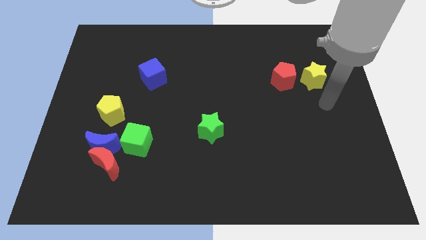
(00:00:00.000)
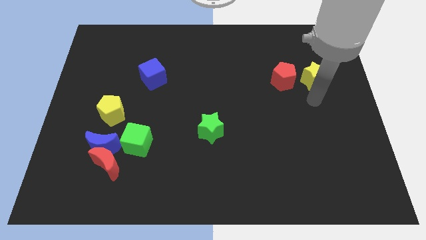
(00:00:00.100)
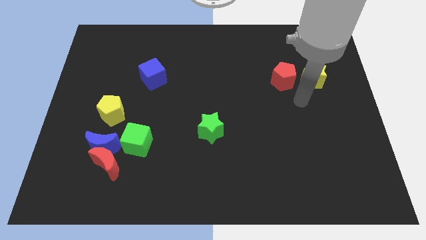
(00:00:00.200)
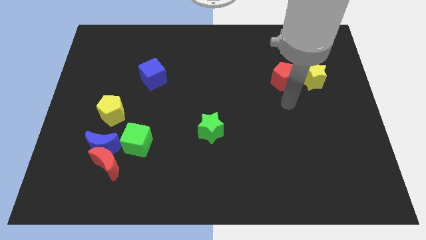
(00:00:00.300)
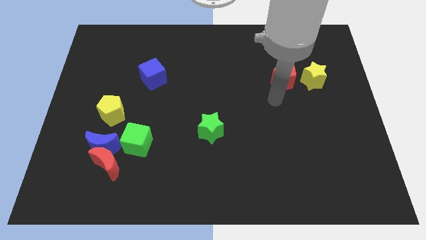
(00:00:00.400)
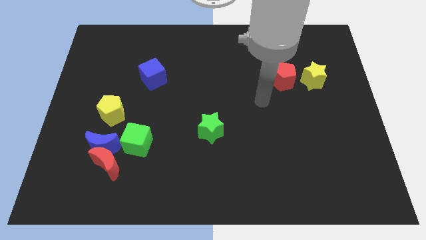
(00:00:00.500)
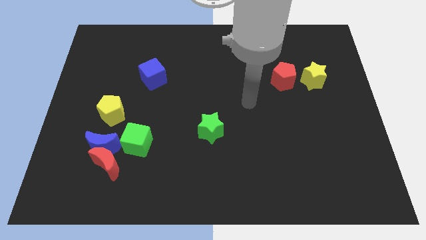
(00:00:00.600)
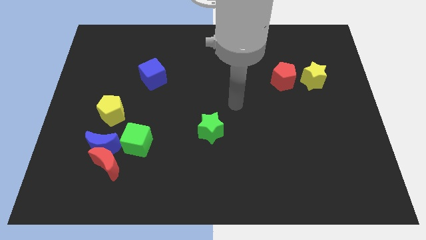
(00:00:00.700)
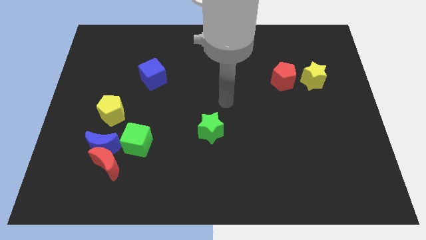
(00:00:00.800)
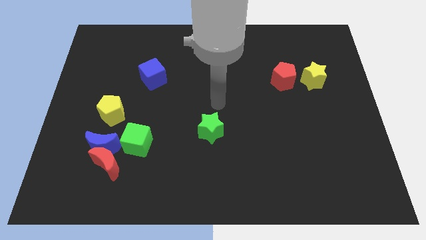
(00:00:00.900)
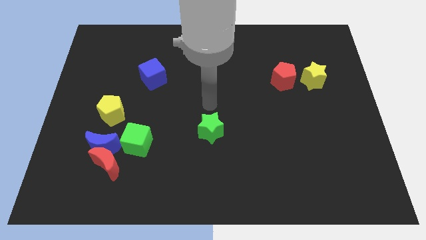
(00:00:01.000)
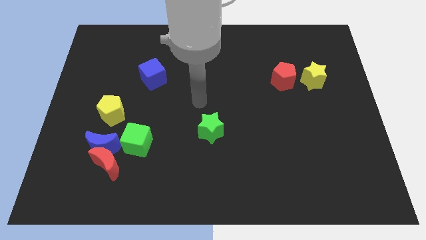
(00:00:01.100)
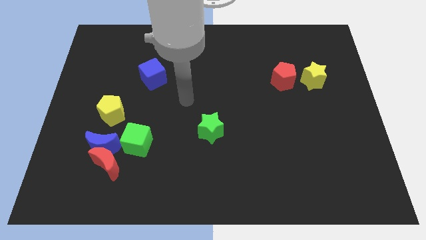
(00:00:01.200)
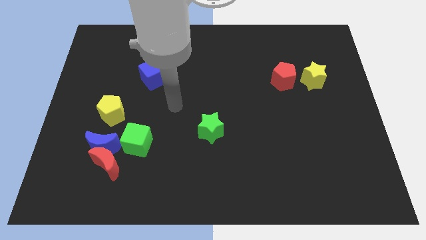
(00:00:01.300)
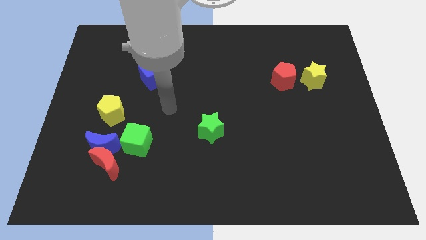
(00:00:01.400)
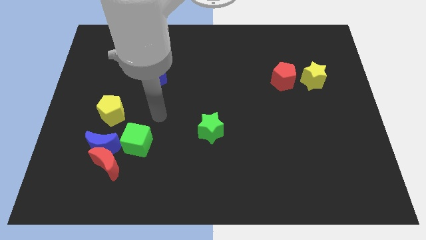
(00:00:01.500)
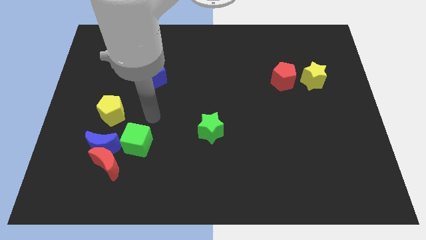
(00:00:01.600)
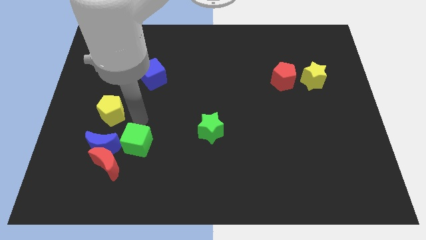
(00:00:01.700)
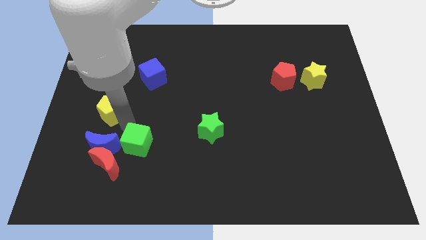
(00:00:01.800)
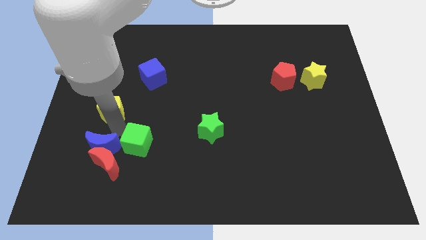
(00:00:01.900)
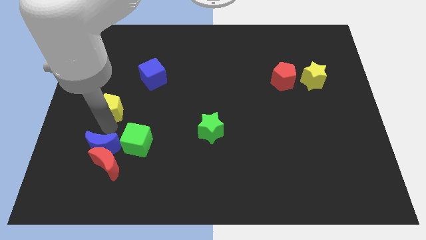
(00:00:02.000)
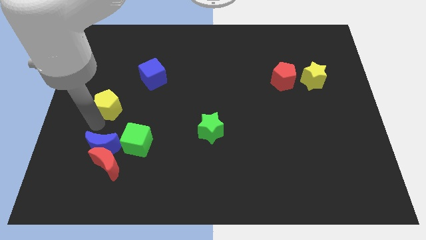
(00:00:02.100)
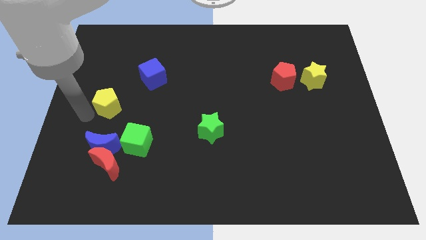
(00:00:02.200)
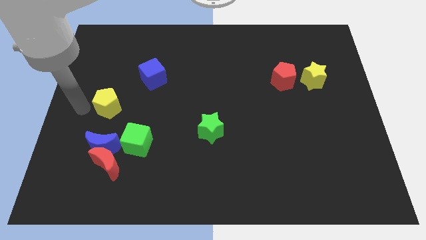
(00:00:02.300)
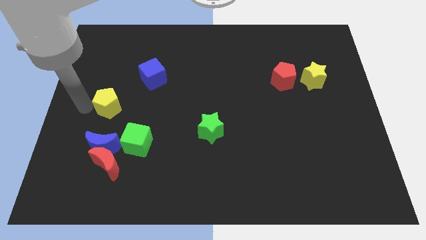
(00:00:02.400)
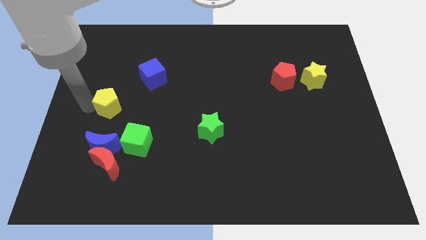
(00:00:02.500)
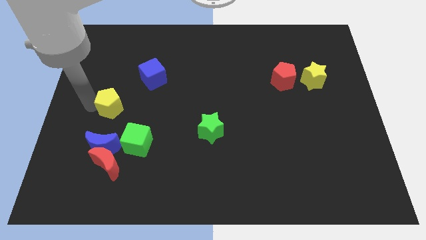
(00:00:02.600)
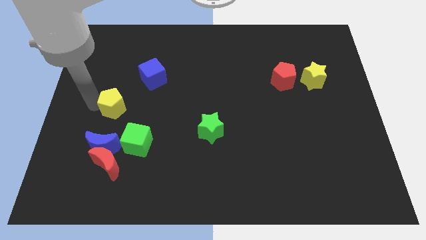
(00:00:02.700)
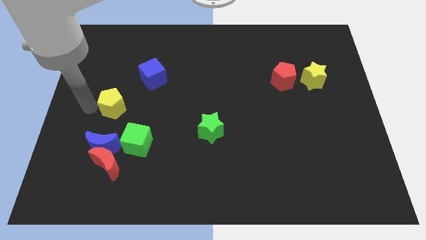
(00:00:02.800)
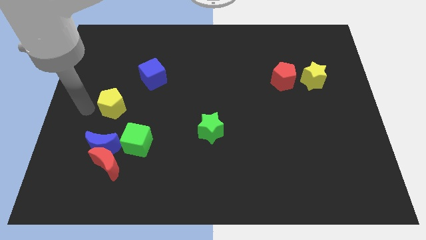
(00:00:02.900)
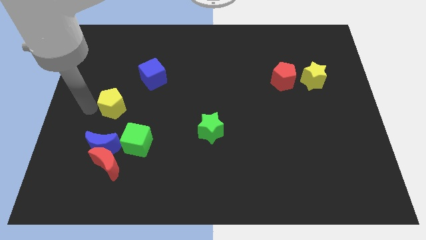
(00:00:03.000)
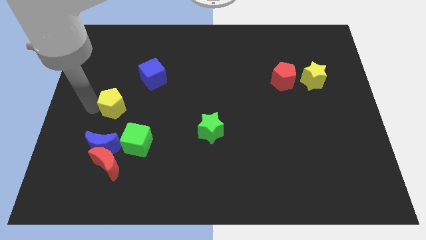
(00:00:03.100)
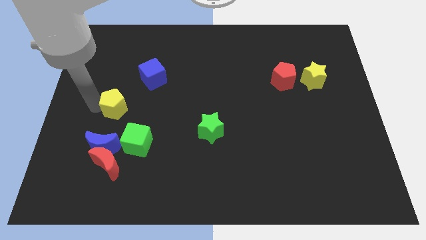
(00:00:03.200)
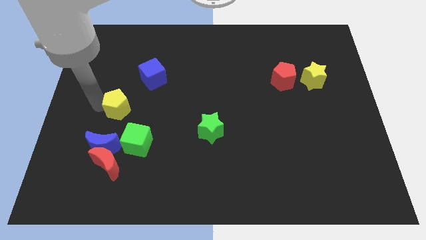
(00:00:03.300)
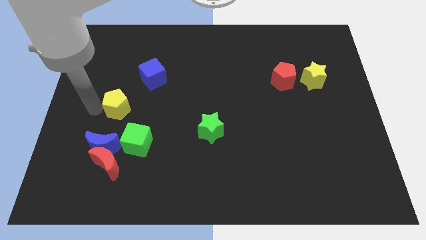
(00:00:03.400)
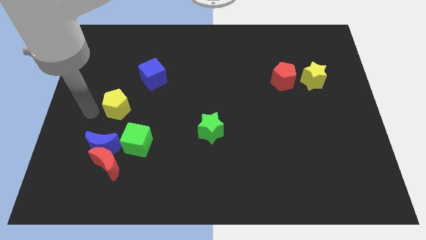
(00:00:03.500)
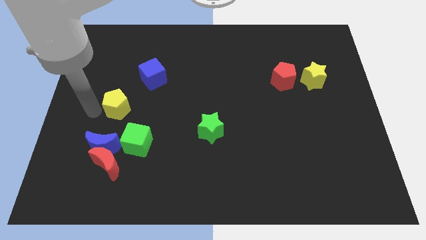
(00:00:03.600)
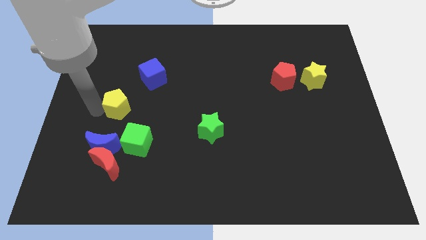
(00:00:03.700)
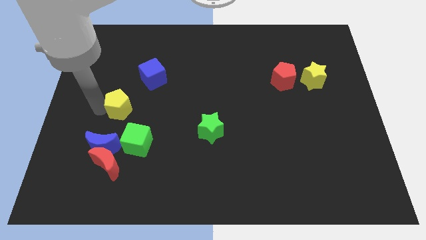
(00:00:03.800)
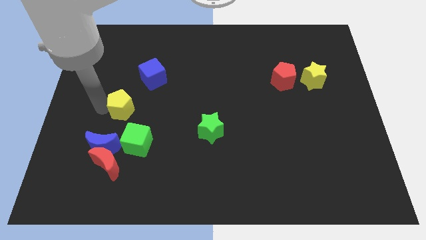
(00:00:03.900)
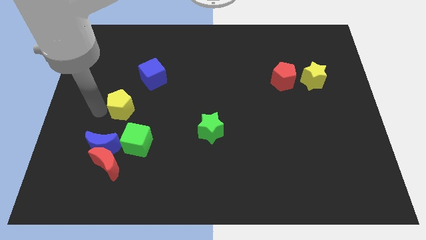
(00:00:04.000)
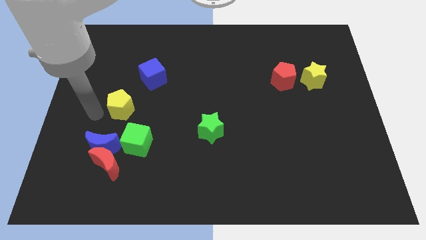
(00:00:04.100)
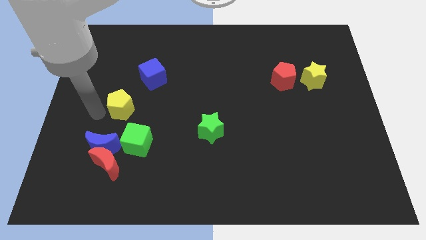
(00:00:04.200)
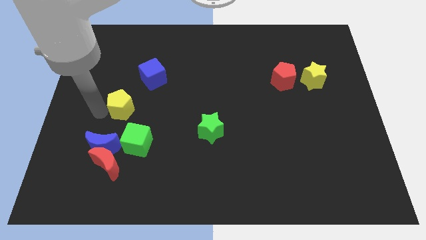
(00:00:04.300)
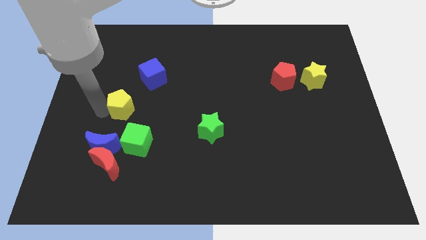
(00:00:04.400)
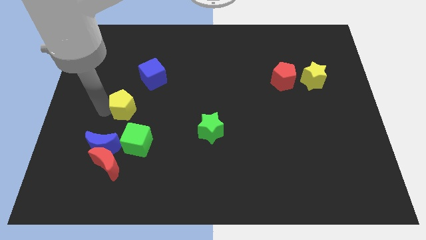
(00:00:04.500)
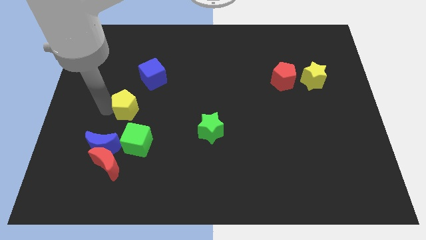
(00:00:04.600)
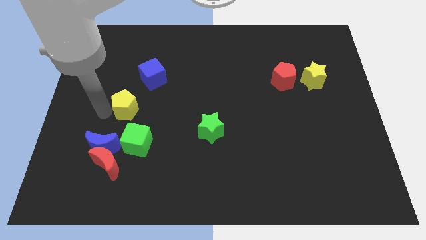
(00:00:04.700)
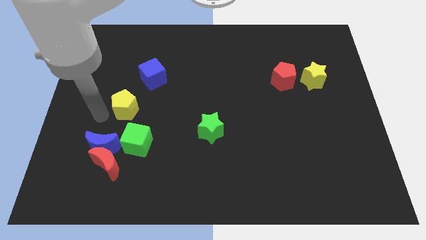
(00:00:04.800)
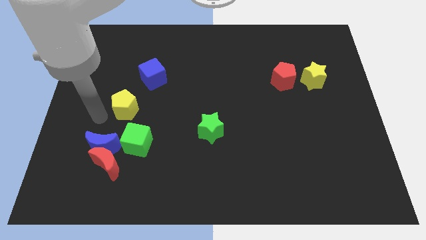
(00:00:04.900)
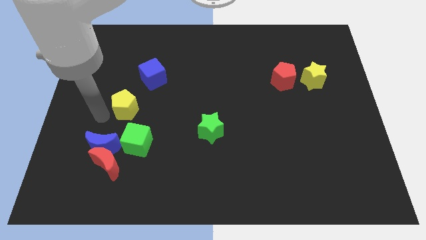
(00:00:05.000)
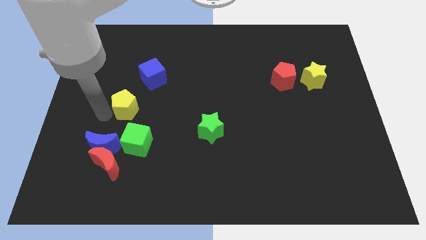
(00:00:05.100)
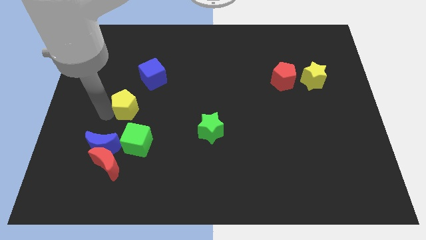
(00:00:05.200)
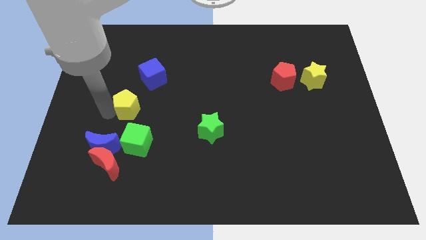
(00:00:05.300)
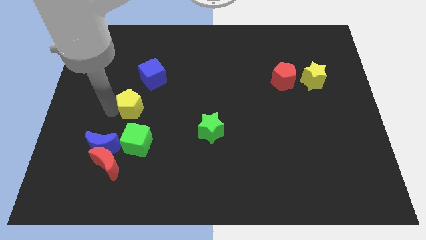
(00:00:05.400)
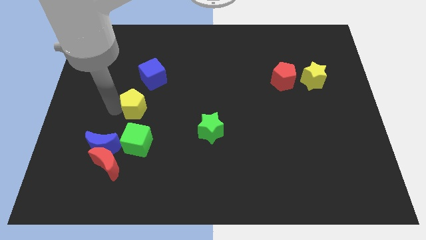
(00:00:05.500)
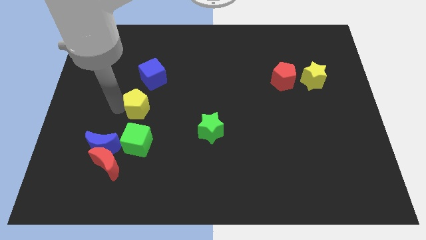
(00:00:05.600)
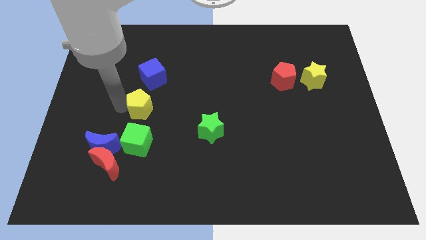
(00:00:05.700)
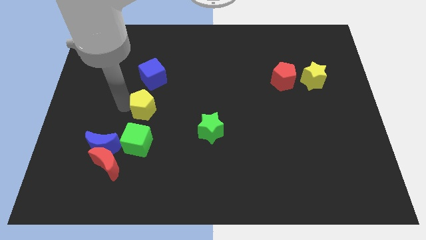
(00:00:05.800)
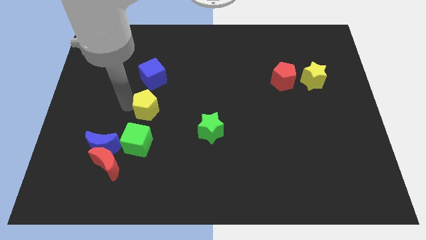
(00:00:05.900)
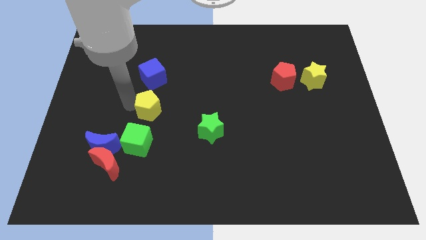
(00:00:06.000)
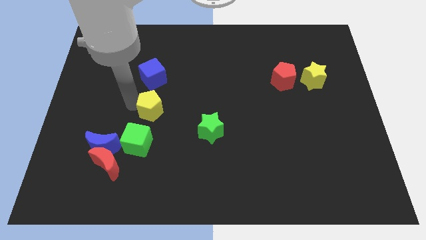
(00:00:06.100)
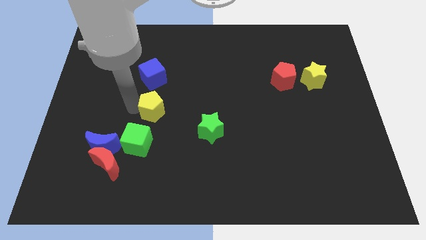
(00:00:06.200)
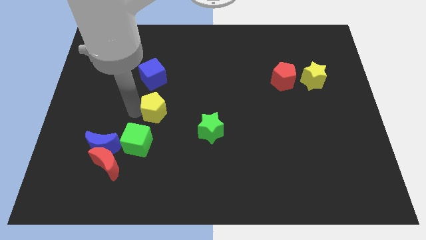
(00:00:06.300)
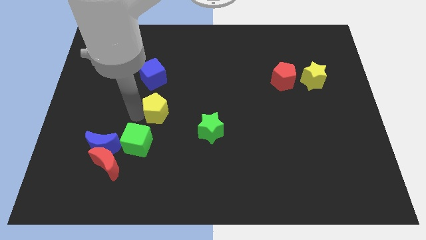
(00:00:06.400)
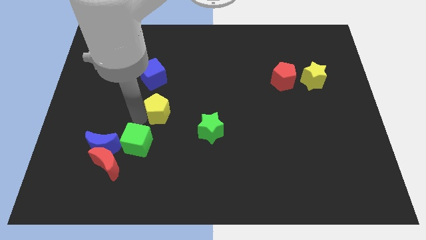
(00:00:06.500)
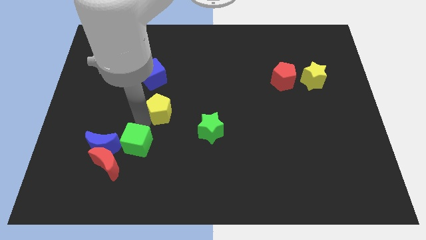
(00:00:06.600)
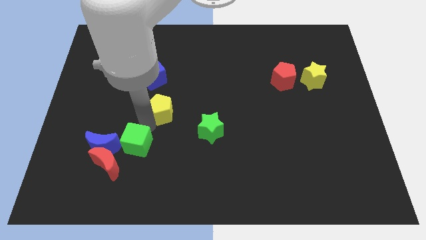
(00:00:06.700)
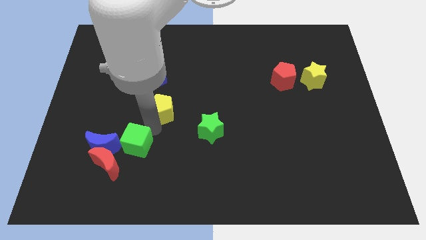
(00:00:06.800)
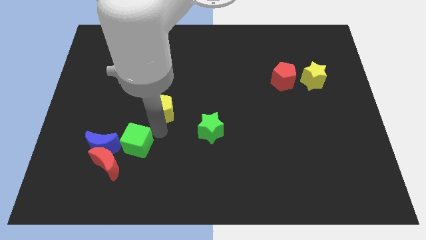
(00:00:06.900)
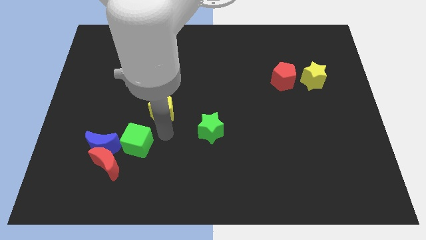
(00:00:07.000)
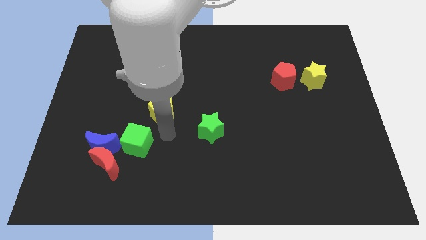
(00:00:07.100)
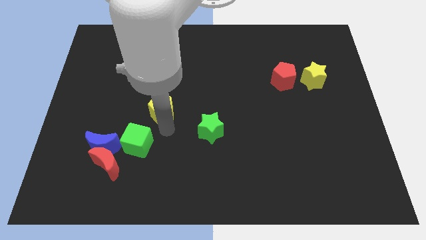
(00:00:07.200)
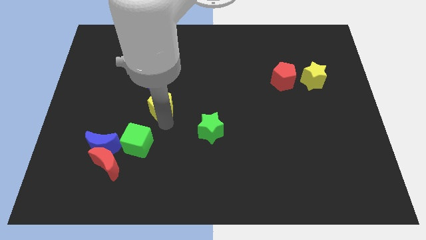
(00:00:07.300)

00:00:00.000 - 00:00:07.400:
push the yellow pentagon somewhat up and right diagonally

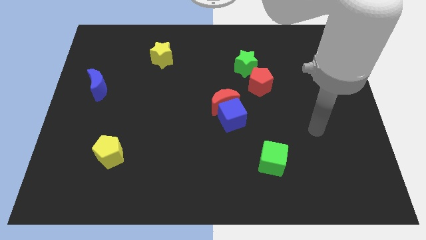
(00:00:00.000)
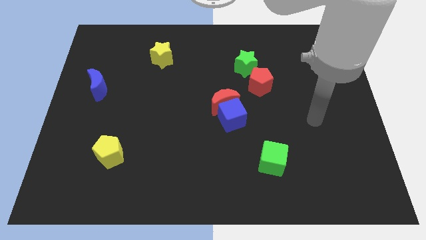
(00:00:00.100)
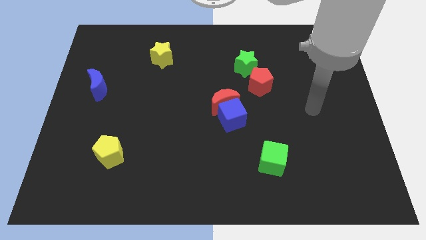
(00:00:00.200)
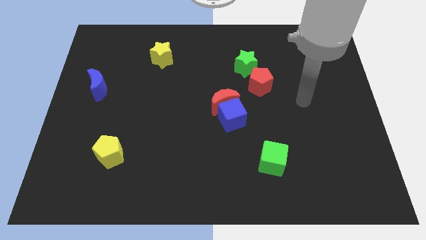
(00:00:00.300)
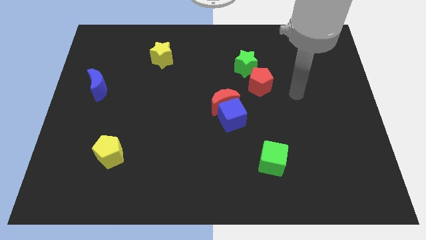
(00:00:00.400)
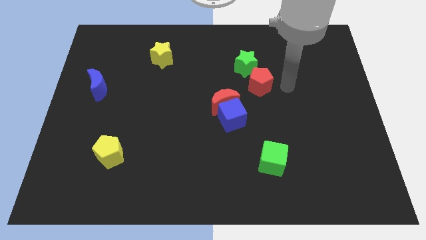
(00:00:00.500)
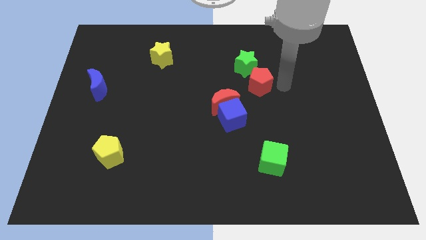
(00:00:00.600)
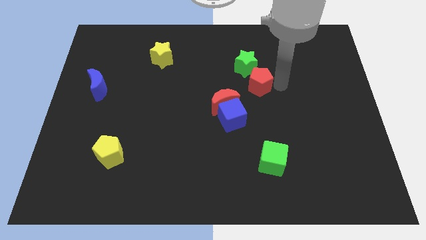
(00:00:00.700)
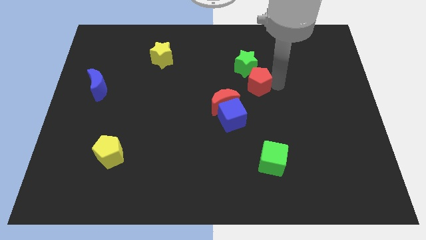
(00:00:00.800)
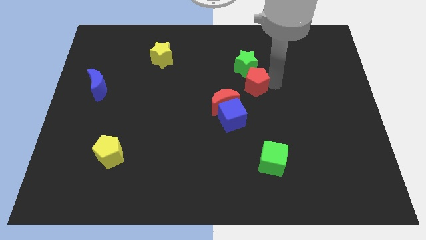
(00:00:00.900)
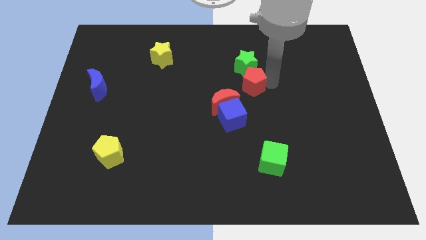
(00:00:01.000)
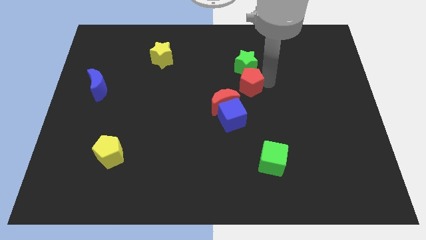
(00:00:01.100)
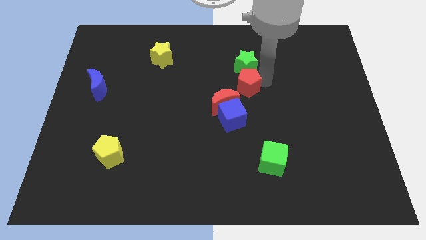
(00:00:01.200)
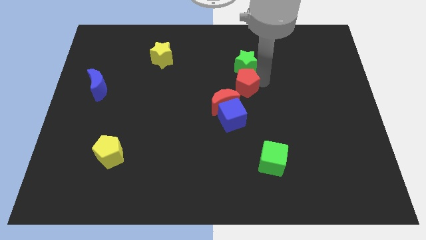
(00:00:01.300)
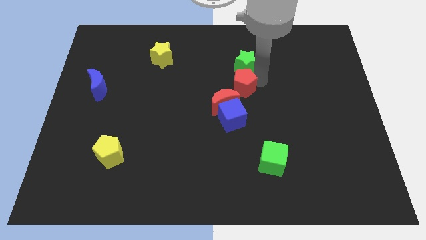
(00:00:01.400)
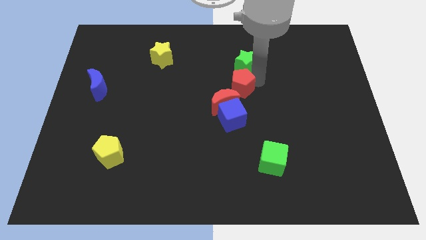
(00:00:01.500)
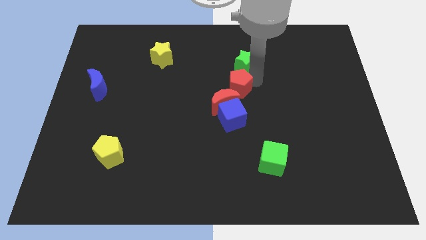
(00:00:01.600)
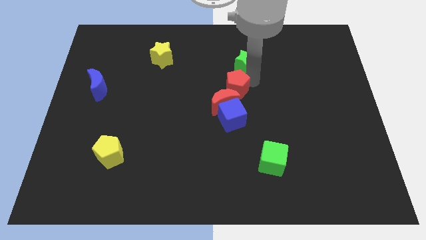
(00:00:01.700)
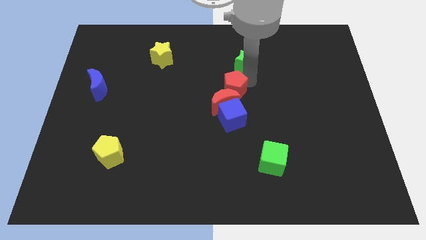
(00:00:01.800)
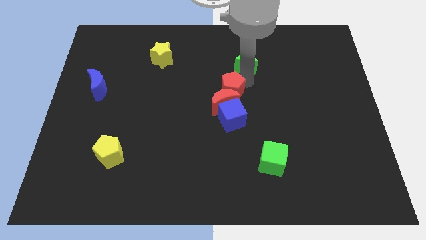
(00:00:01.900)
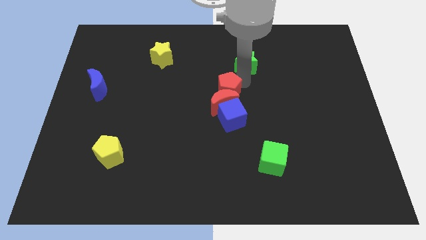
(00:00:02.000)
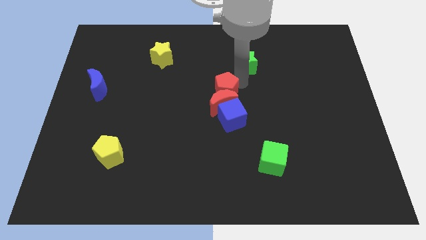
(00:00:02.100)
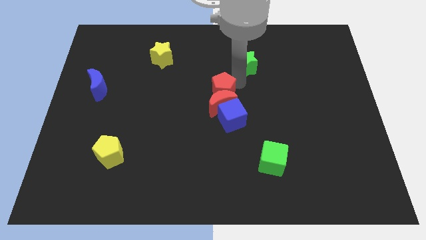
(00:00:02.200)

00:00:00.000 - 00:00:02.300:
move the red pentagon diagonally down and to the left slightly
